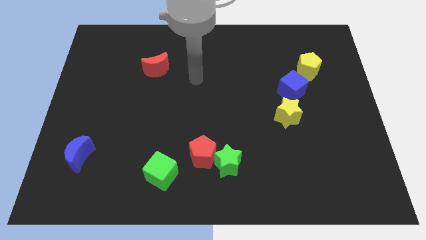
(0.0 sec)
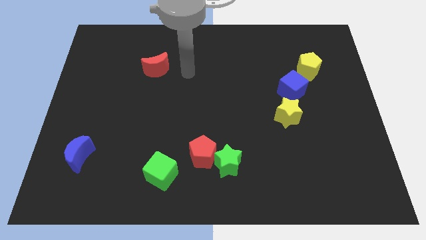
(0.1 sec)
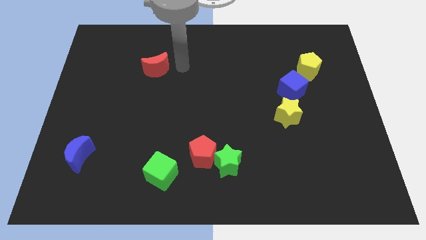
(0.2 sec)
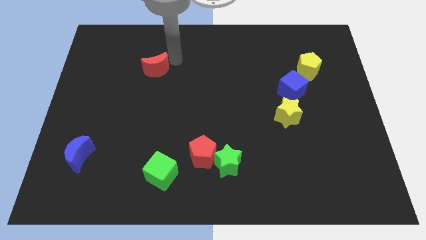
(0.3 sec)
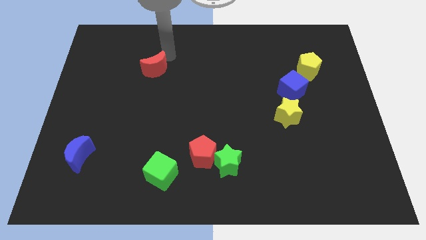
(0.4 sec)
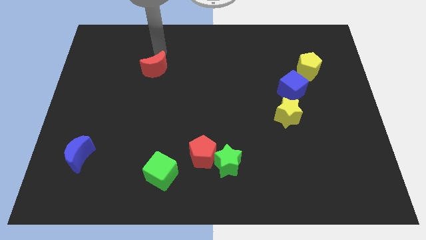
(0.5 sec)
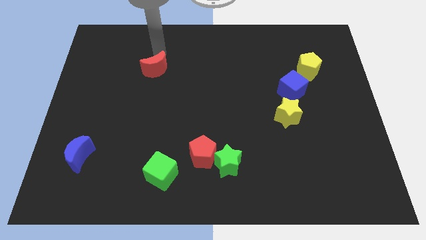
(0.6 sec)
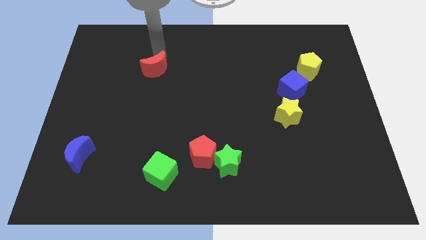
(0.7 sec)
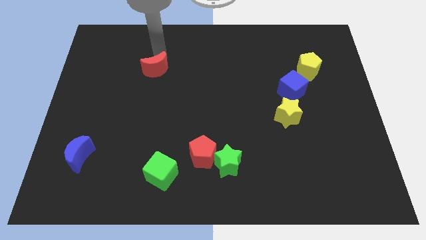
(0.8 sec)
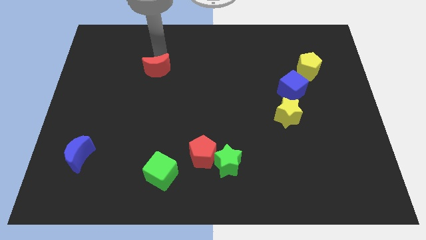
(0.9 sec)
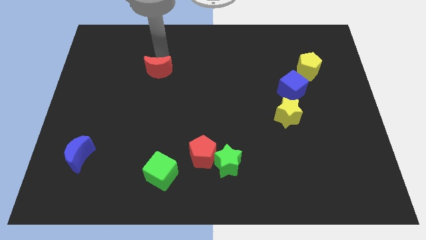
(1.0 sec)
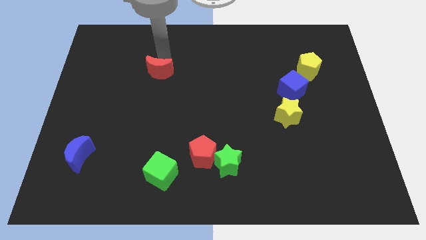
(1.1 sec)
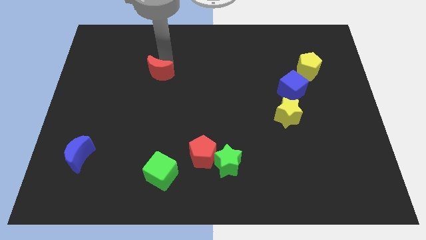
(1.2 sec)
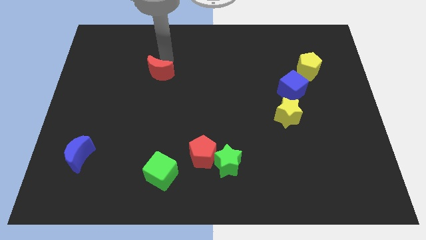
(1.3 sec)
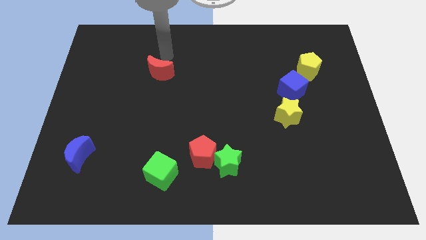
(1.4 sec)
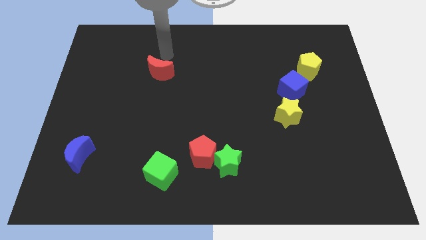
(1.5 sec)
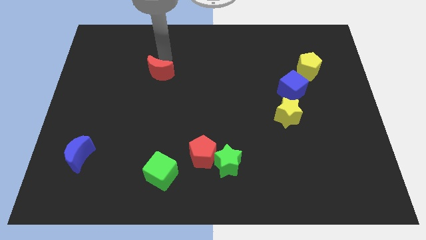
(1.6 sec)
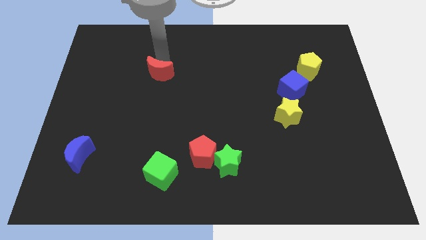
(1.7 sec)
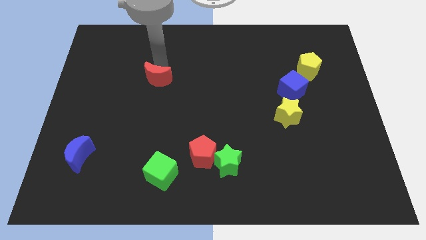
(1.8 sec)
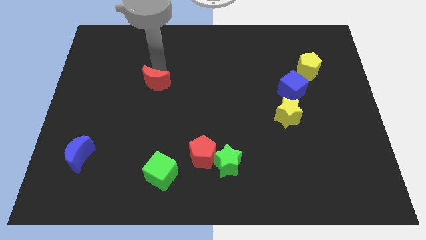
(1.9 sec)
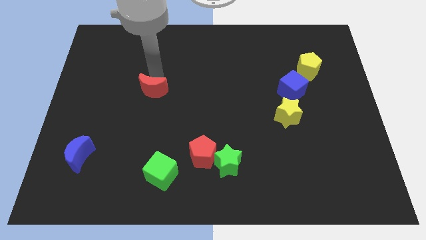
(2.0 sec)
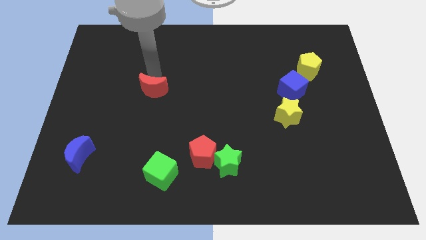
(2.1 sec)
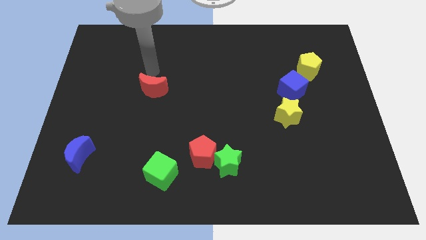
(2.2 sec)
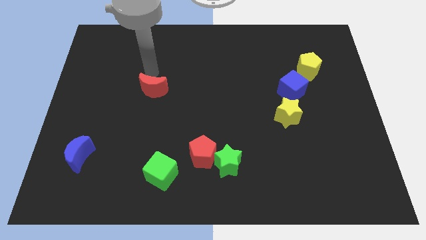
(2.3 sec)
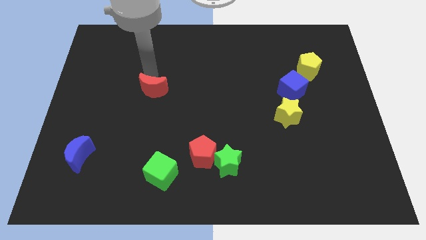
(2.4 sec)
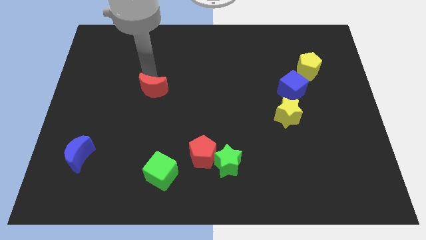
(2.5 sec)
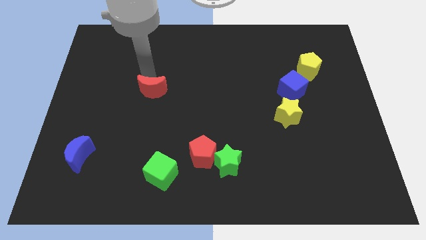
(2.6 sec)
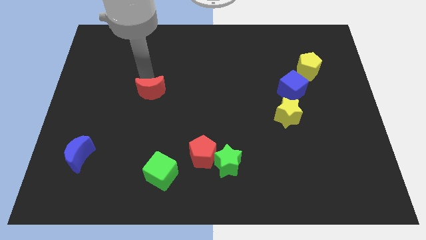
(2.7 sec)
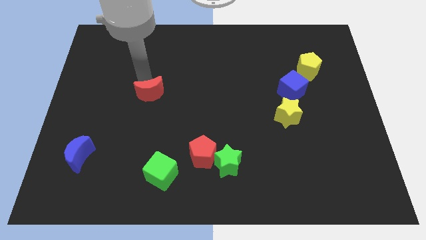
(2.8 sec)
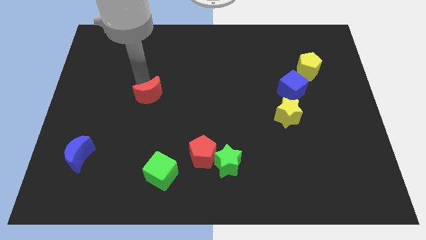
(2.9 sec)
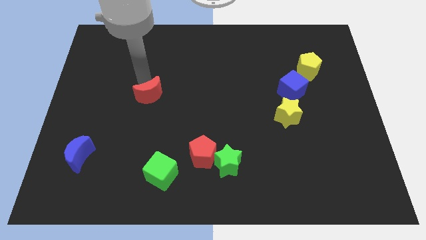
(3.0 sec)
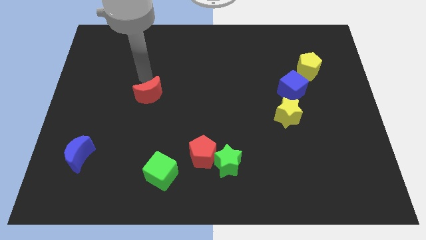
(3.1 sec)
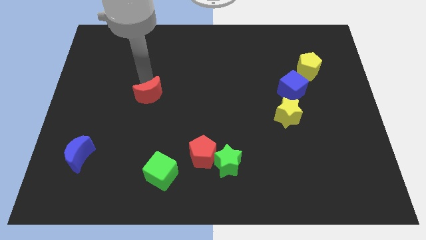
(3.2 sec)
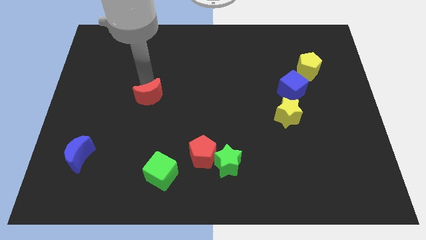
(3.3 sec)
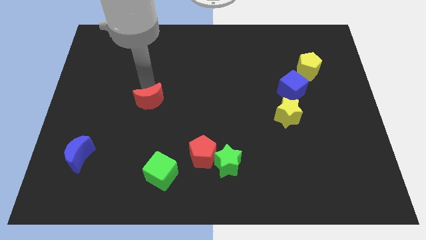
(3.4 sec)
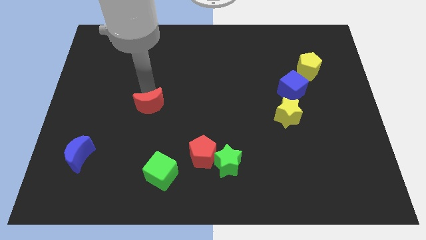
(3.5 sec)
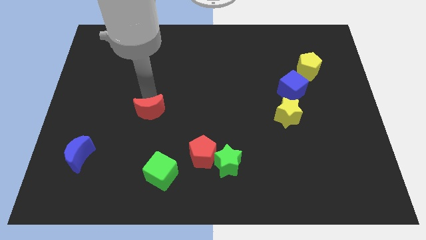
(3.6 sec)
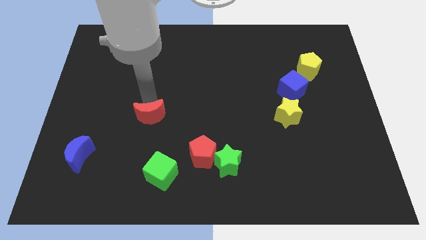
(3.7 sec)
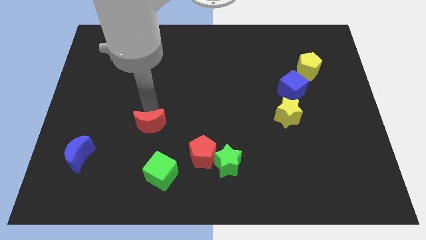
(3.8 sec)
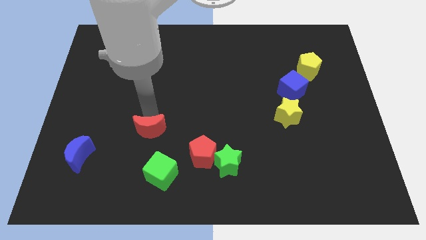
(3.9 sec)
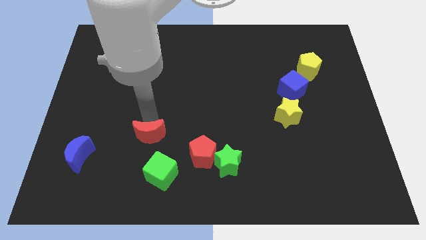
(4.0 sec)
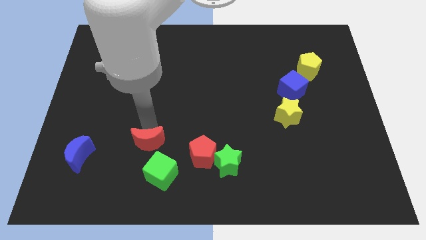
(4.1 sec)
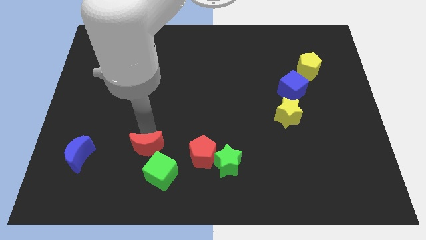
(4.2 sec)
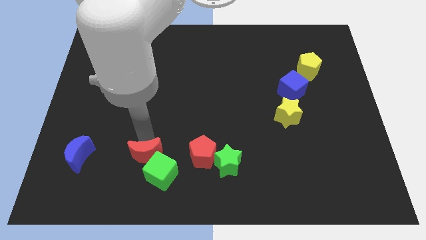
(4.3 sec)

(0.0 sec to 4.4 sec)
move the red moon to the green cube

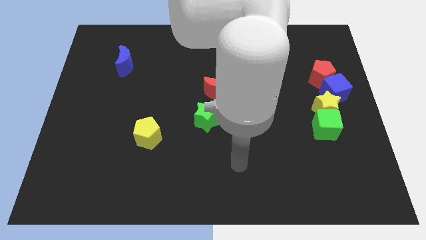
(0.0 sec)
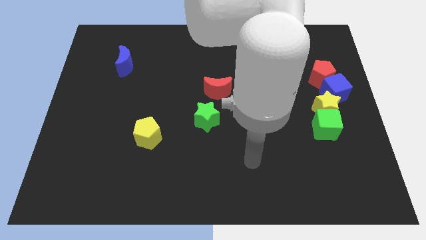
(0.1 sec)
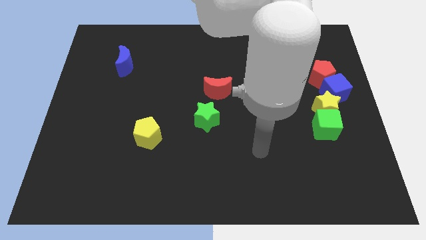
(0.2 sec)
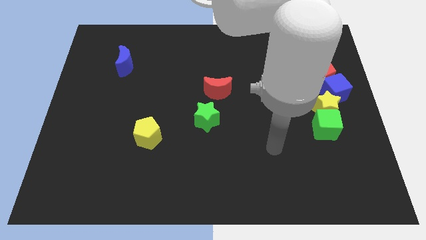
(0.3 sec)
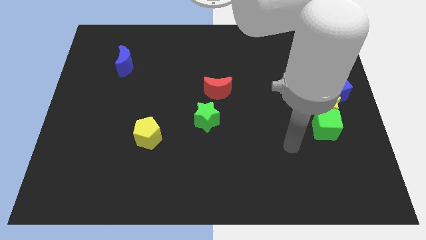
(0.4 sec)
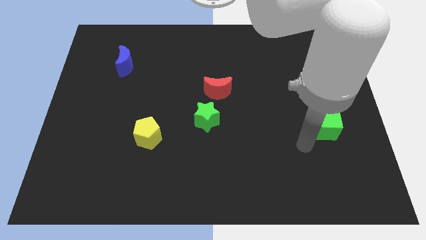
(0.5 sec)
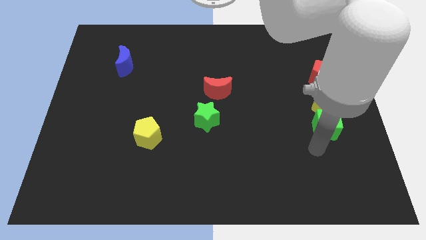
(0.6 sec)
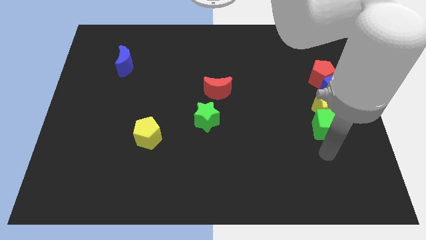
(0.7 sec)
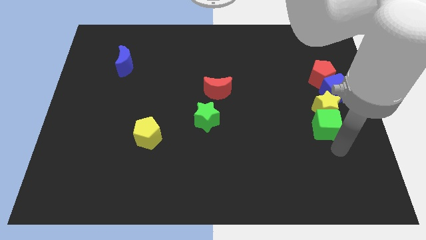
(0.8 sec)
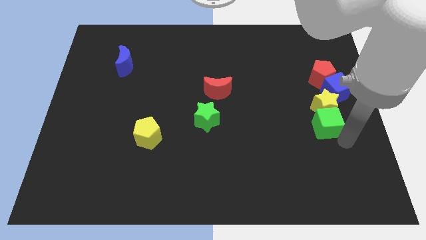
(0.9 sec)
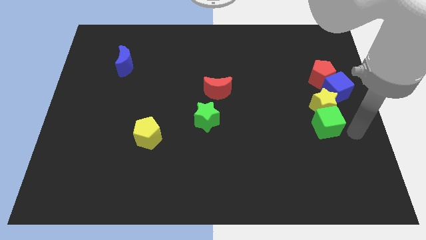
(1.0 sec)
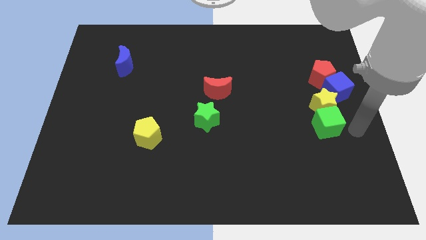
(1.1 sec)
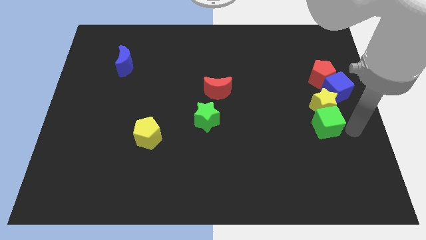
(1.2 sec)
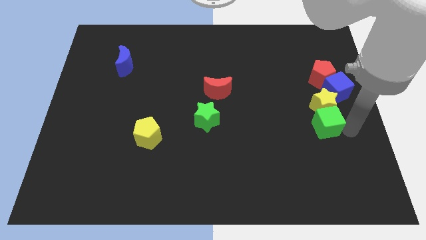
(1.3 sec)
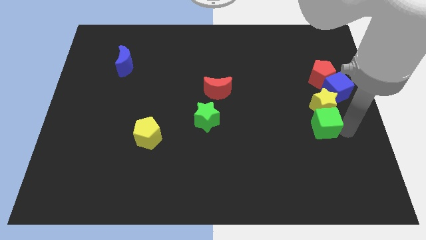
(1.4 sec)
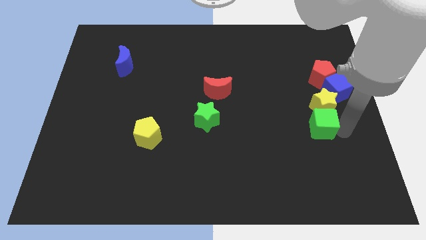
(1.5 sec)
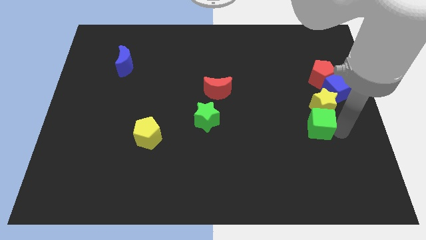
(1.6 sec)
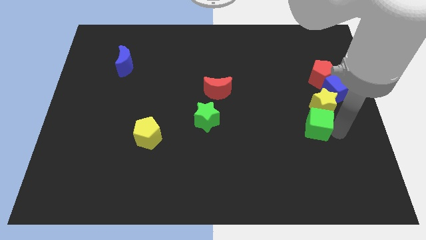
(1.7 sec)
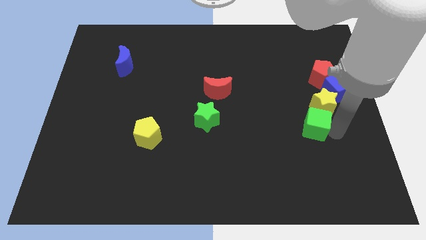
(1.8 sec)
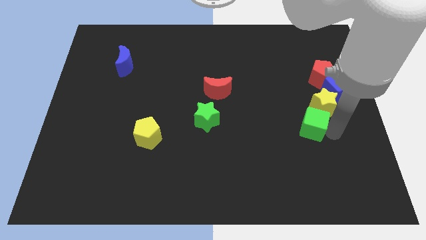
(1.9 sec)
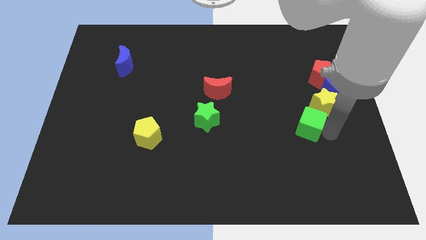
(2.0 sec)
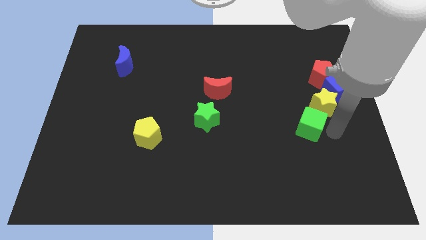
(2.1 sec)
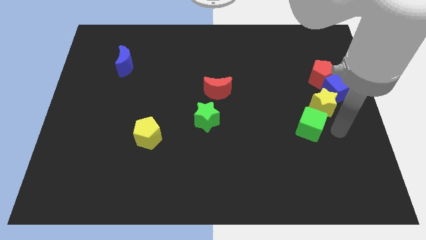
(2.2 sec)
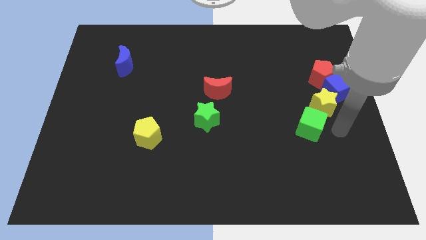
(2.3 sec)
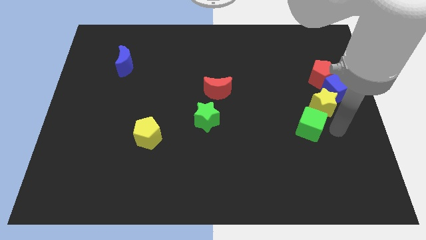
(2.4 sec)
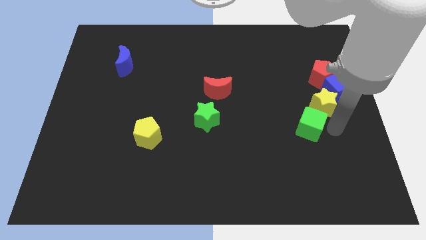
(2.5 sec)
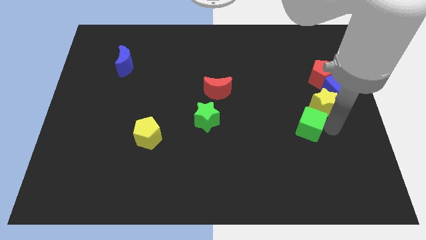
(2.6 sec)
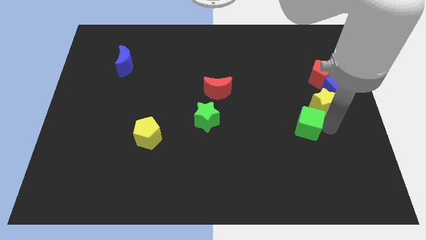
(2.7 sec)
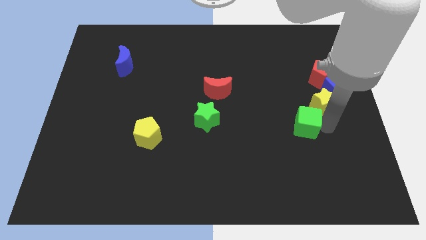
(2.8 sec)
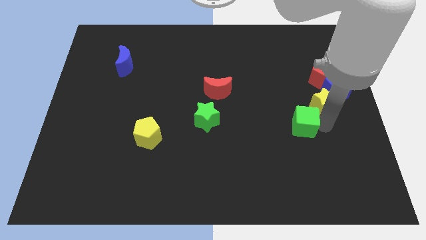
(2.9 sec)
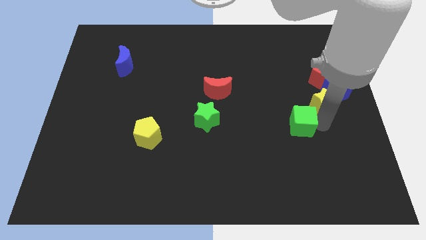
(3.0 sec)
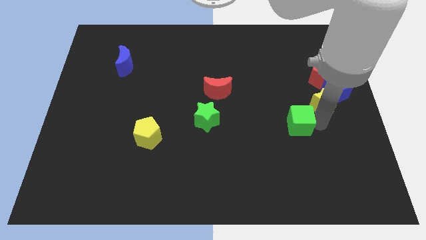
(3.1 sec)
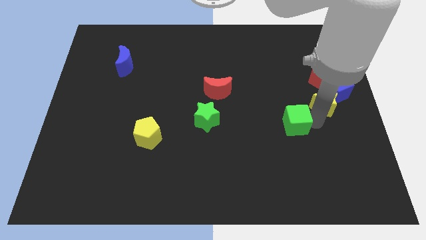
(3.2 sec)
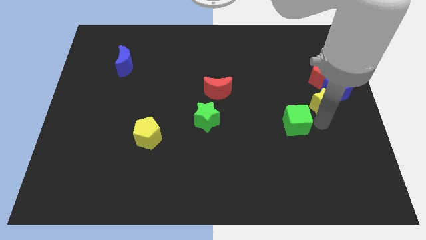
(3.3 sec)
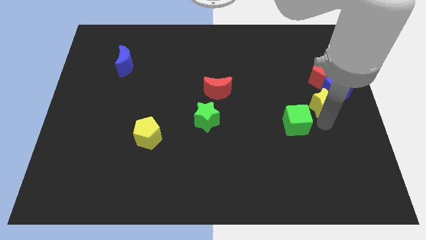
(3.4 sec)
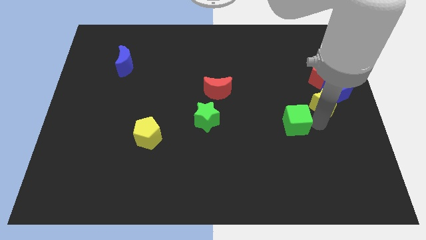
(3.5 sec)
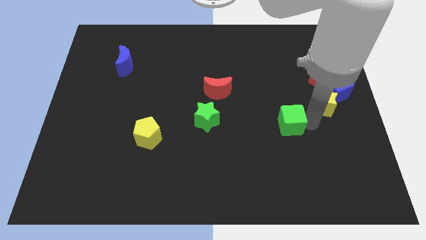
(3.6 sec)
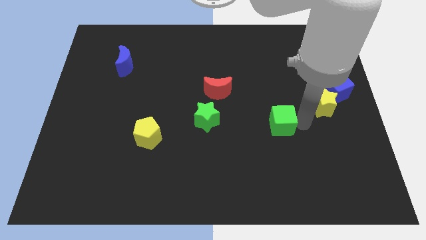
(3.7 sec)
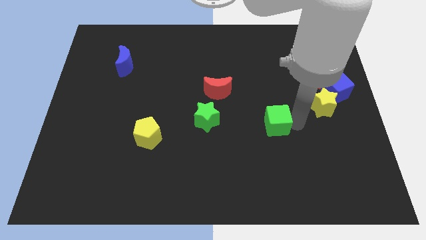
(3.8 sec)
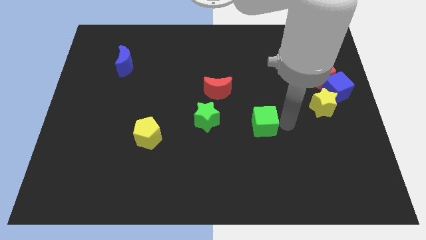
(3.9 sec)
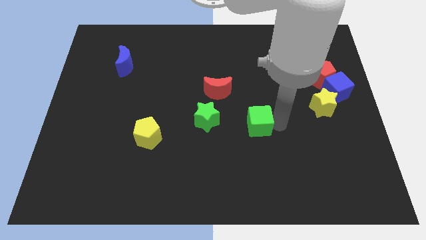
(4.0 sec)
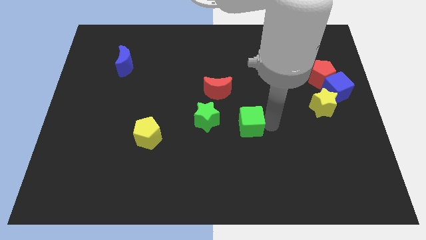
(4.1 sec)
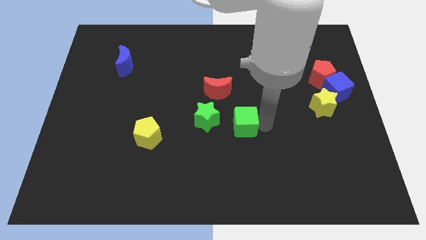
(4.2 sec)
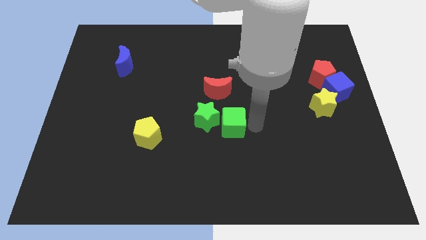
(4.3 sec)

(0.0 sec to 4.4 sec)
push the green cube towards the green star
